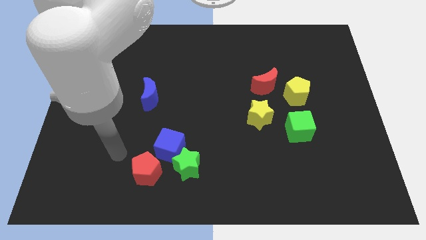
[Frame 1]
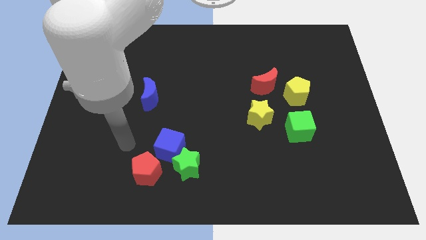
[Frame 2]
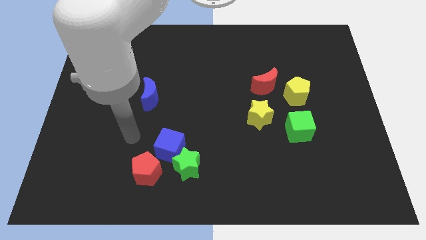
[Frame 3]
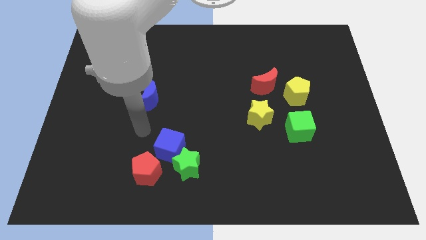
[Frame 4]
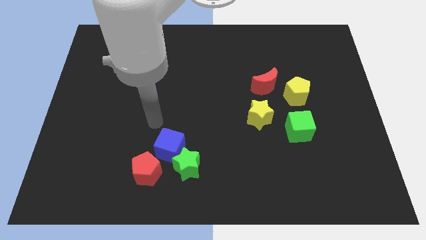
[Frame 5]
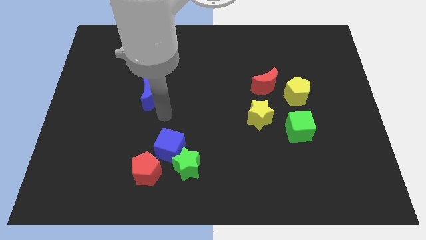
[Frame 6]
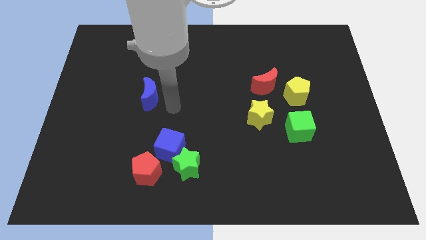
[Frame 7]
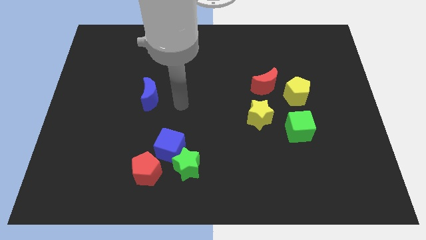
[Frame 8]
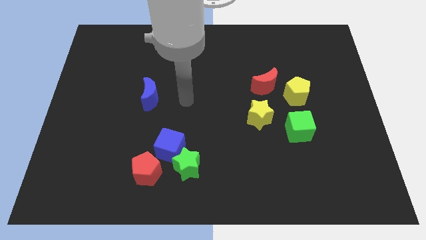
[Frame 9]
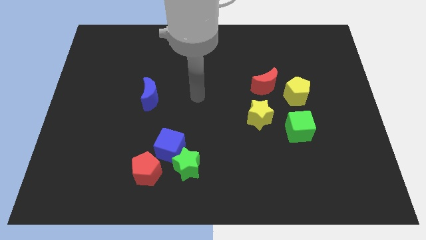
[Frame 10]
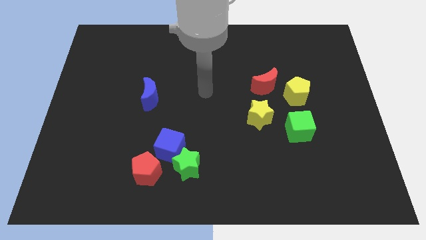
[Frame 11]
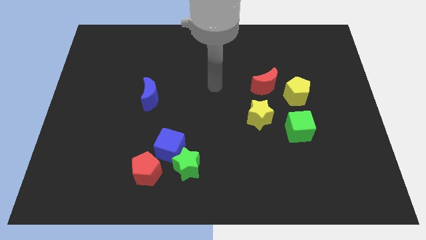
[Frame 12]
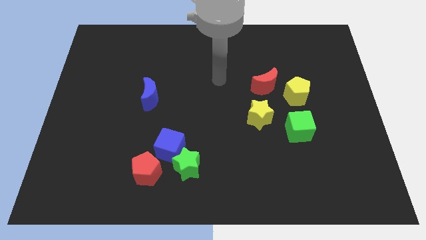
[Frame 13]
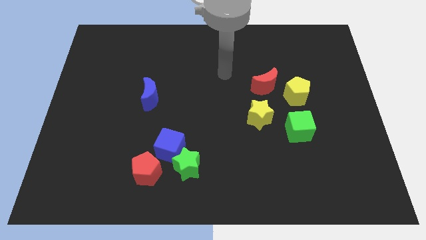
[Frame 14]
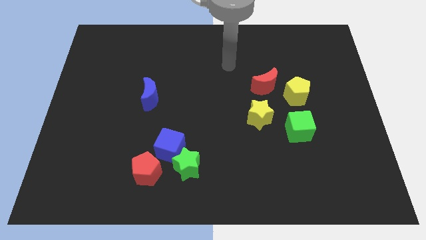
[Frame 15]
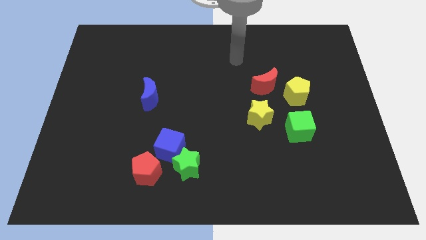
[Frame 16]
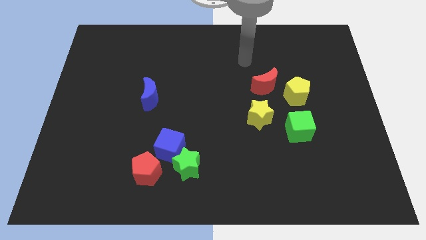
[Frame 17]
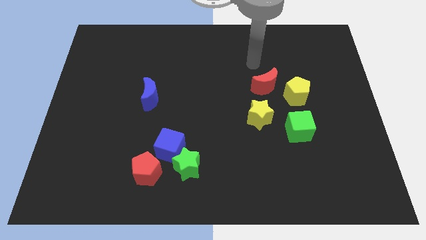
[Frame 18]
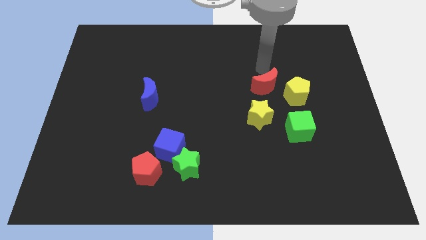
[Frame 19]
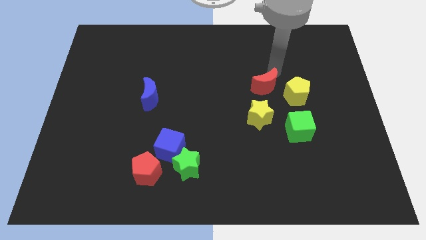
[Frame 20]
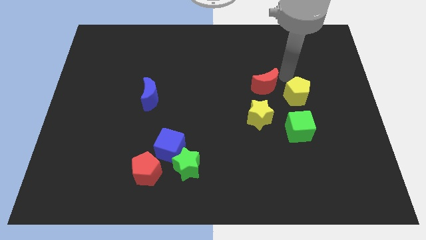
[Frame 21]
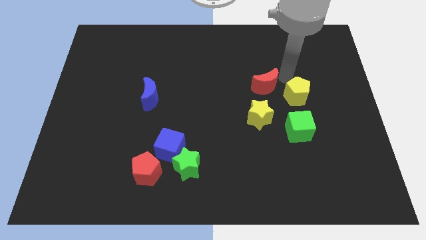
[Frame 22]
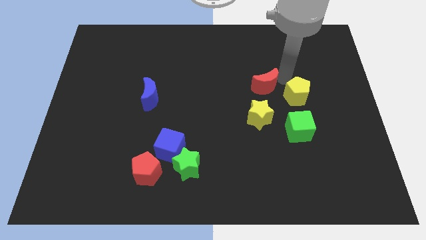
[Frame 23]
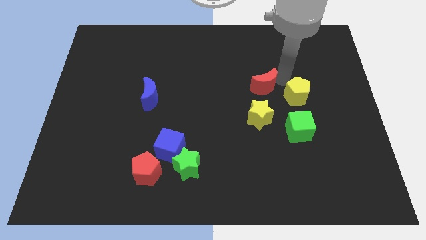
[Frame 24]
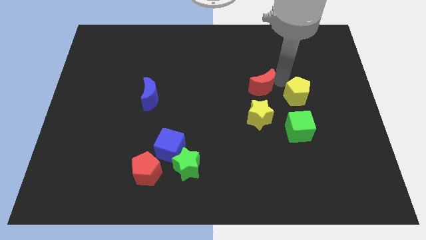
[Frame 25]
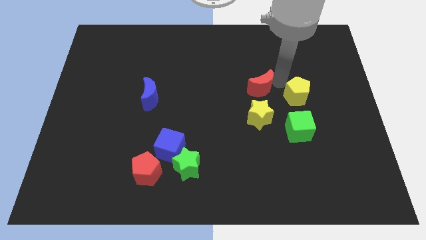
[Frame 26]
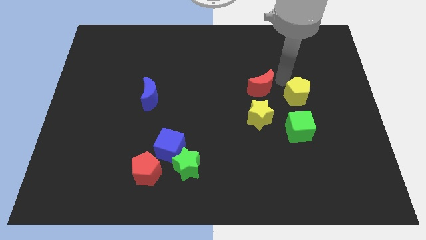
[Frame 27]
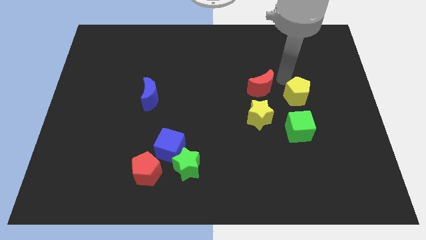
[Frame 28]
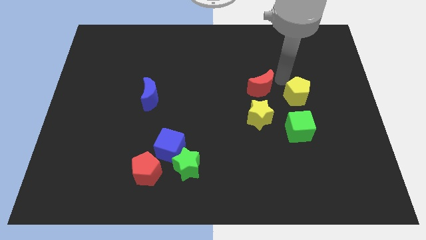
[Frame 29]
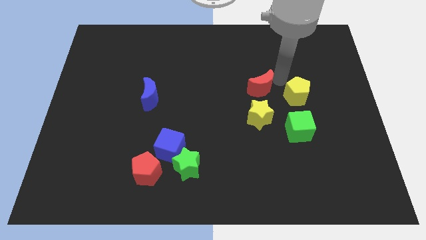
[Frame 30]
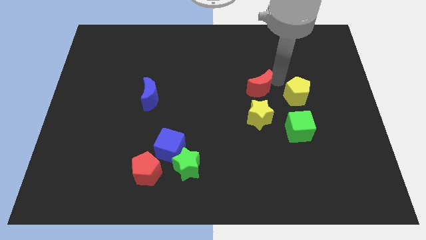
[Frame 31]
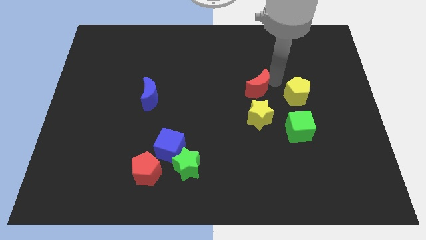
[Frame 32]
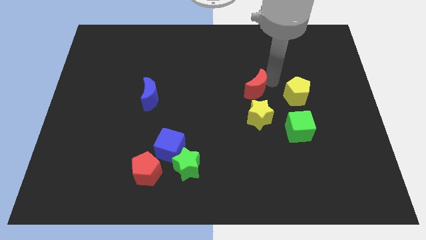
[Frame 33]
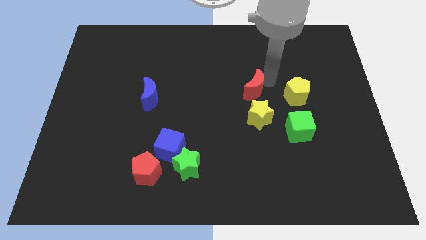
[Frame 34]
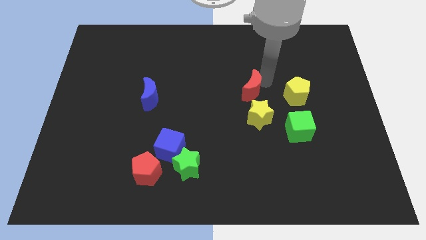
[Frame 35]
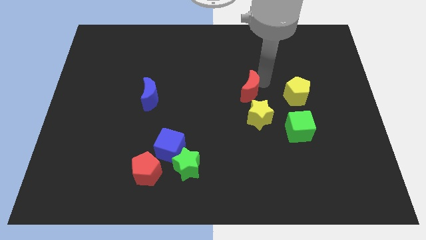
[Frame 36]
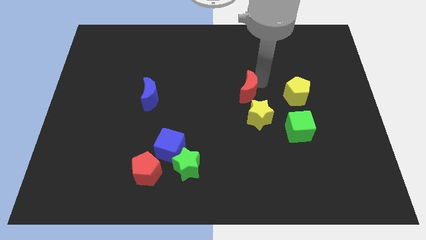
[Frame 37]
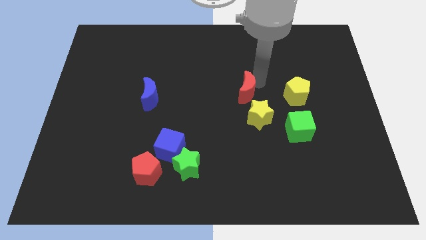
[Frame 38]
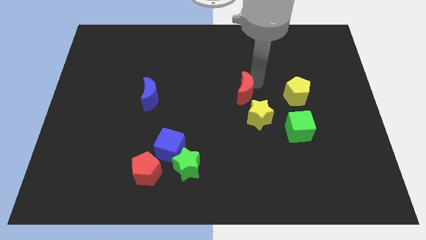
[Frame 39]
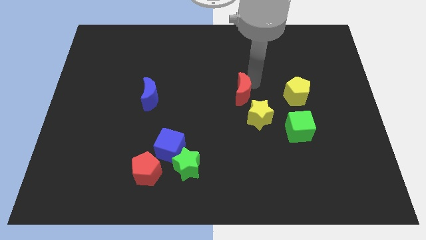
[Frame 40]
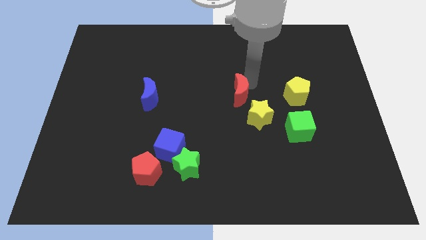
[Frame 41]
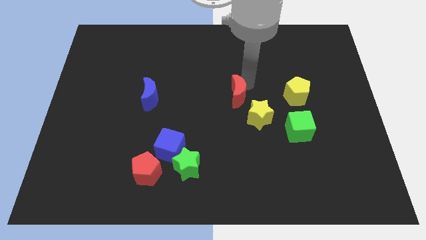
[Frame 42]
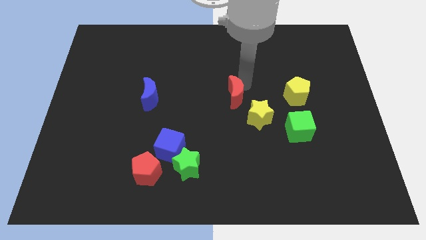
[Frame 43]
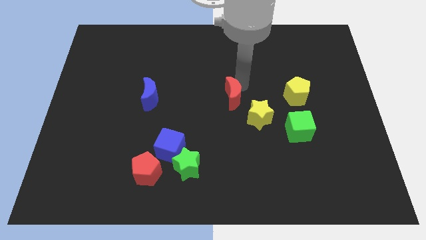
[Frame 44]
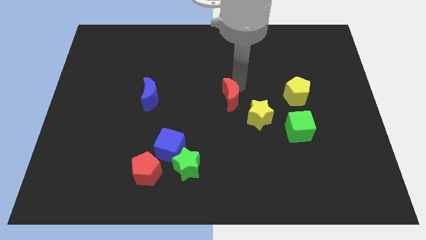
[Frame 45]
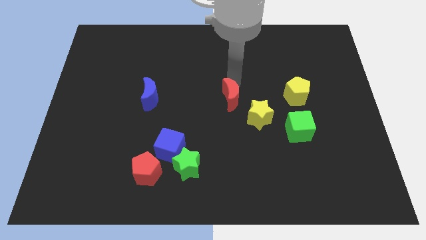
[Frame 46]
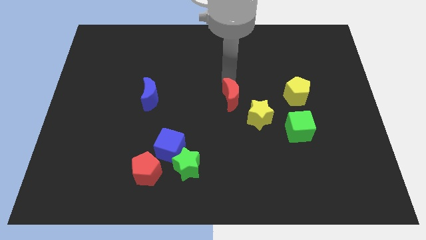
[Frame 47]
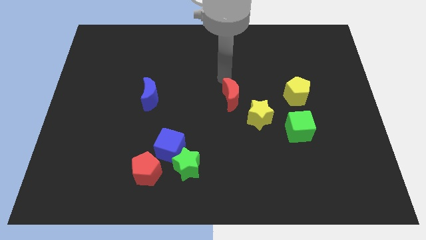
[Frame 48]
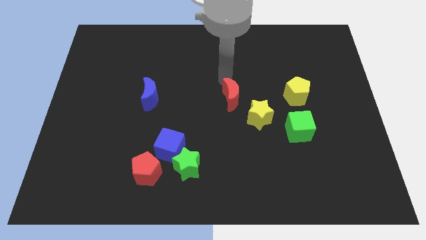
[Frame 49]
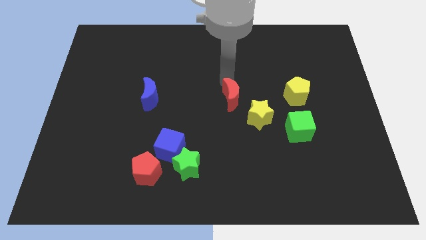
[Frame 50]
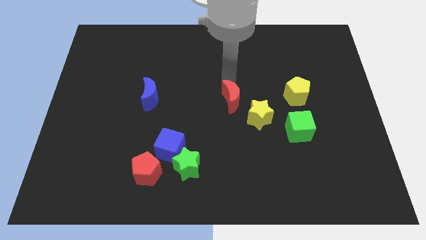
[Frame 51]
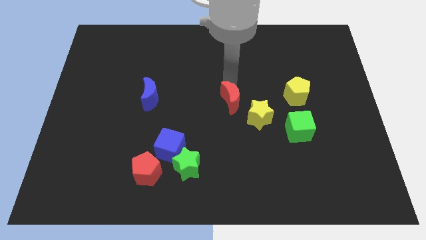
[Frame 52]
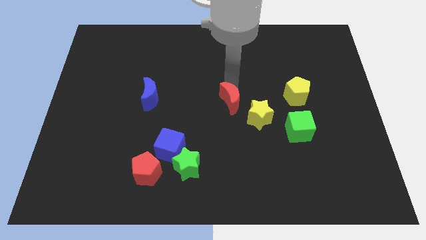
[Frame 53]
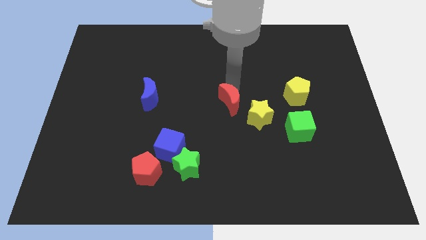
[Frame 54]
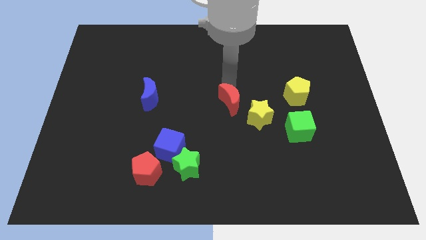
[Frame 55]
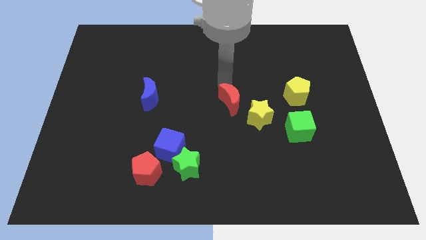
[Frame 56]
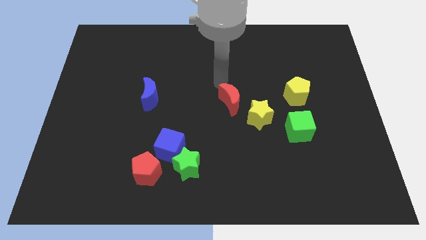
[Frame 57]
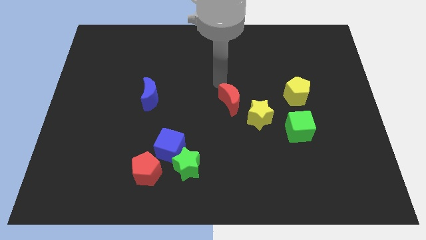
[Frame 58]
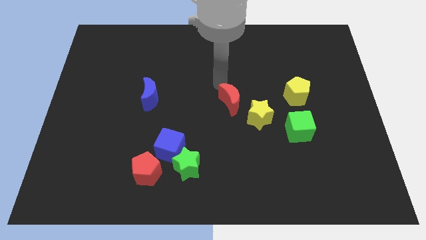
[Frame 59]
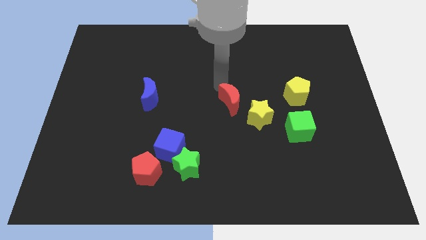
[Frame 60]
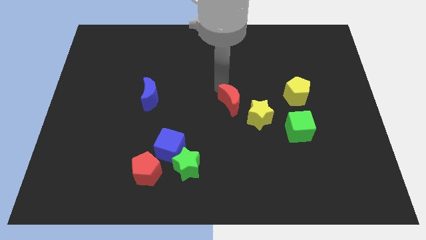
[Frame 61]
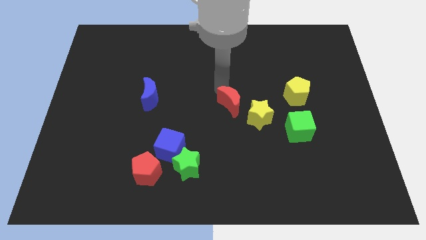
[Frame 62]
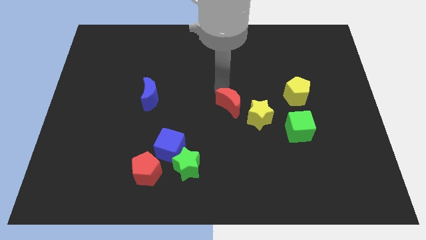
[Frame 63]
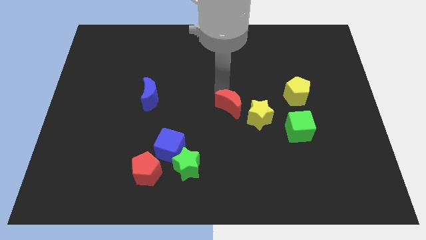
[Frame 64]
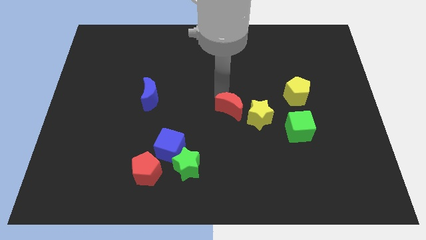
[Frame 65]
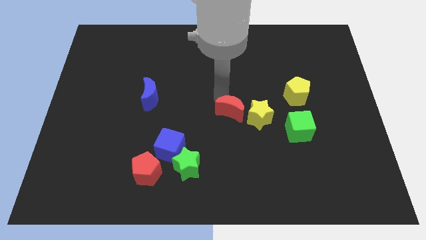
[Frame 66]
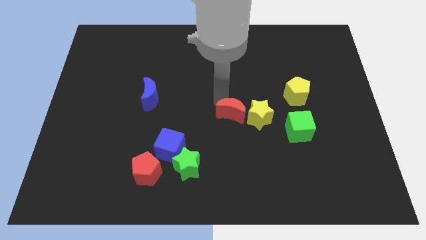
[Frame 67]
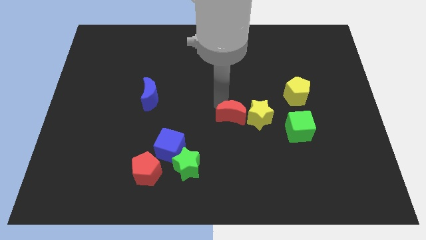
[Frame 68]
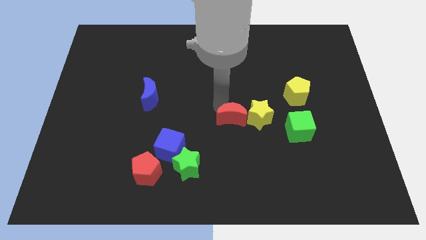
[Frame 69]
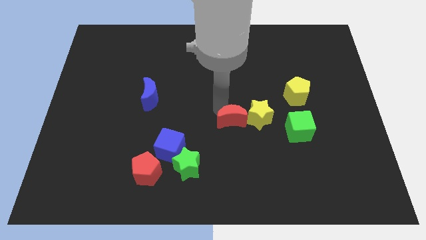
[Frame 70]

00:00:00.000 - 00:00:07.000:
move the red moon somewhat downwards

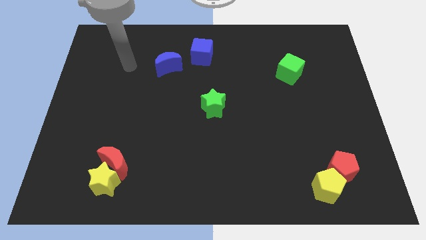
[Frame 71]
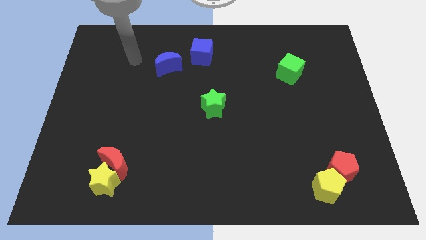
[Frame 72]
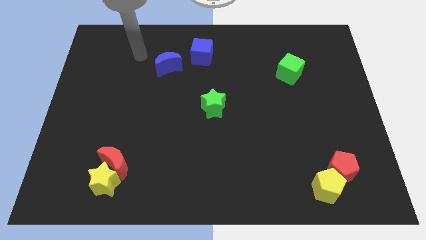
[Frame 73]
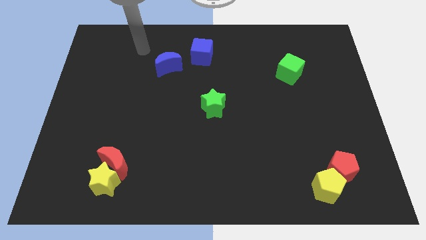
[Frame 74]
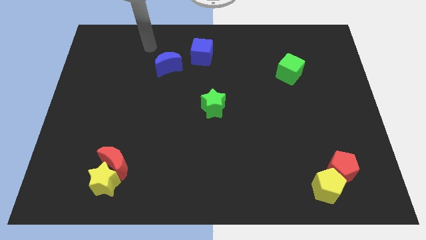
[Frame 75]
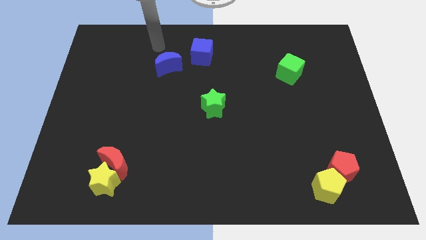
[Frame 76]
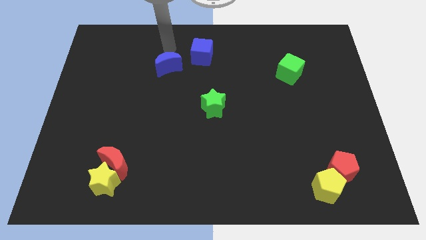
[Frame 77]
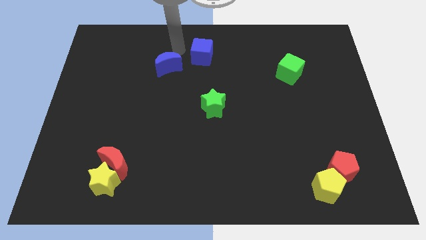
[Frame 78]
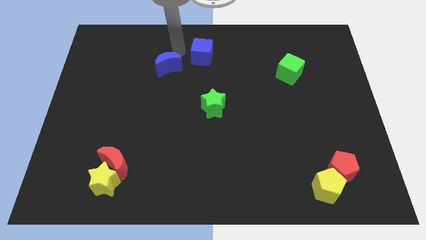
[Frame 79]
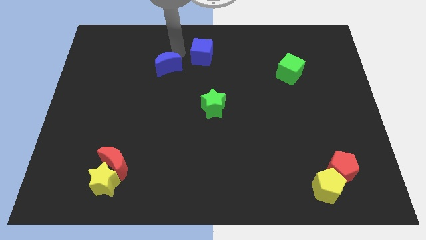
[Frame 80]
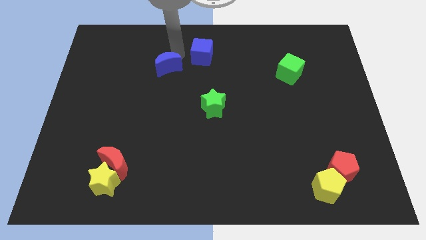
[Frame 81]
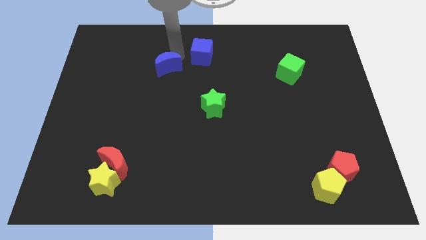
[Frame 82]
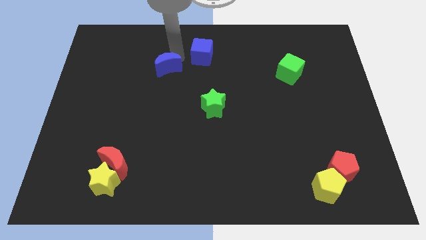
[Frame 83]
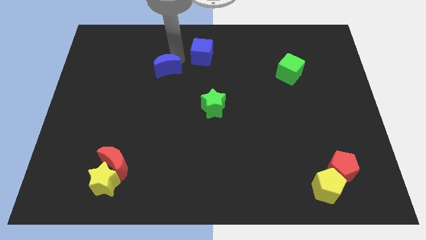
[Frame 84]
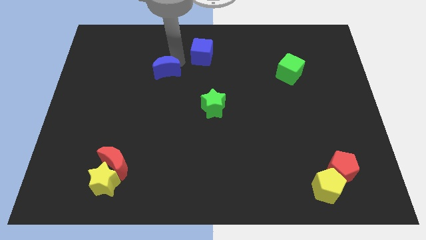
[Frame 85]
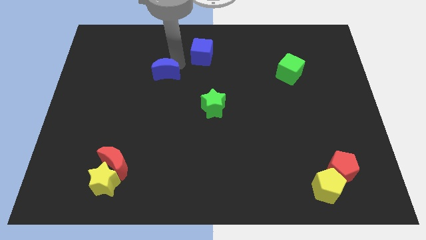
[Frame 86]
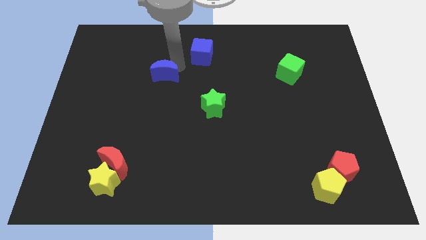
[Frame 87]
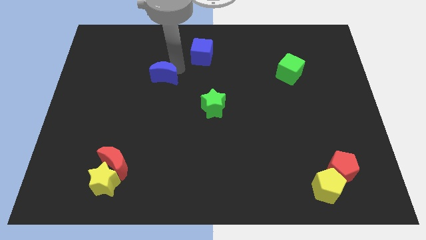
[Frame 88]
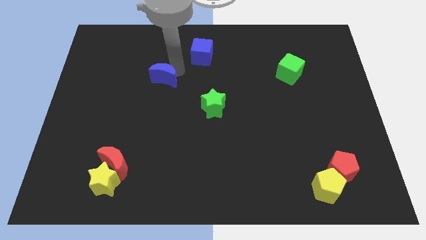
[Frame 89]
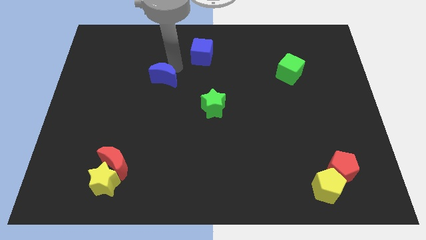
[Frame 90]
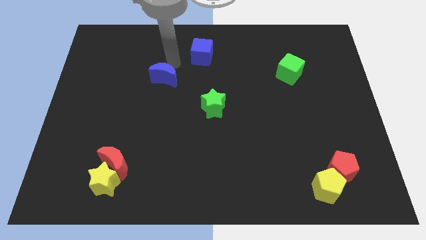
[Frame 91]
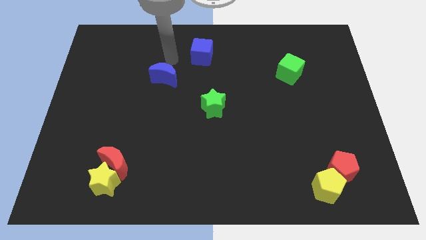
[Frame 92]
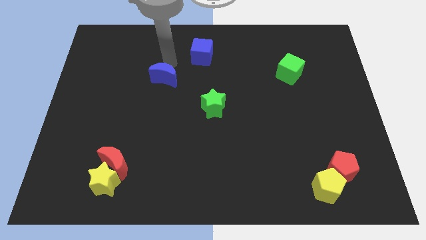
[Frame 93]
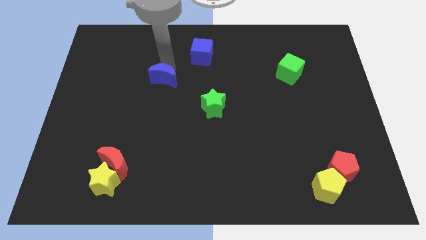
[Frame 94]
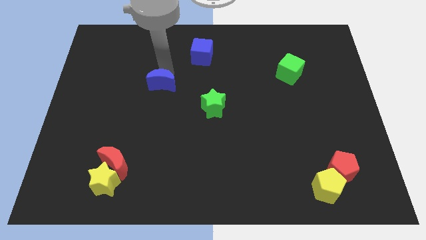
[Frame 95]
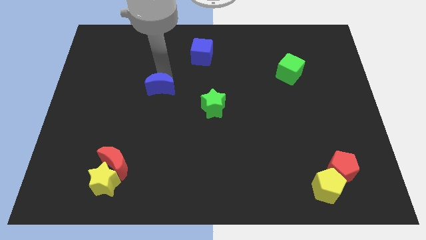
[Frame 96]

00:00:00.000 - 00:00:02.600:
slightly move the blue moon down
